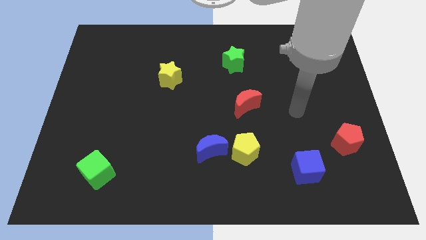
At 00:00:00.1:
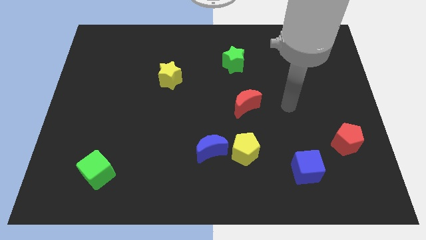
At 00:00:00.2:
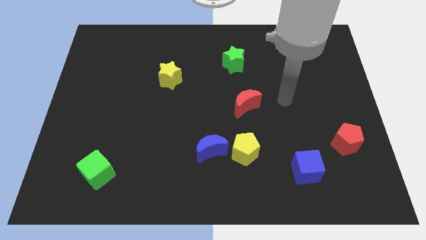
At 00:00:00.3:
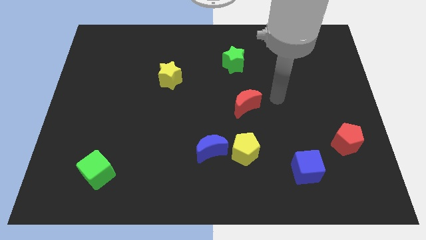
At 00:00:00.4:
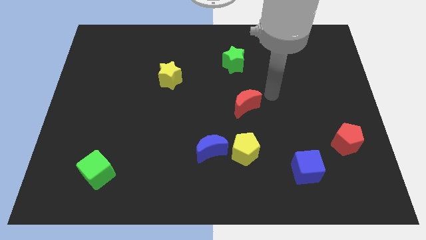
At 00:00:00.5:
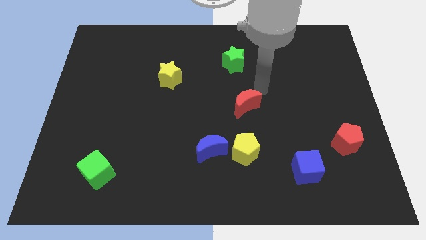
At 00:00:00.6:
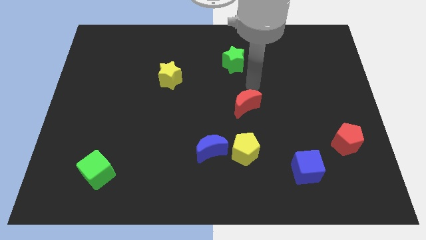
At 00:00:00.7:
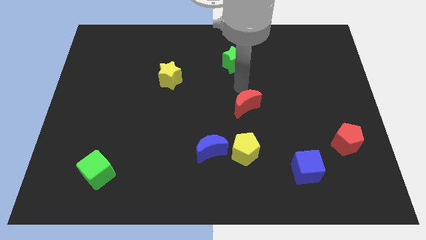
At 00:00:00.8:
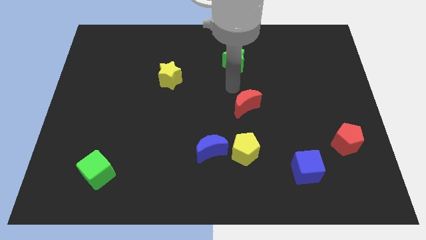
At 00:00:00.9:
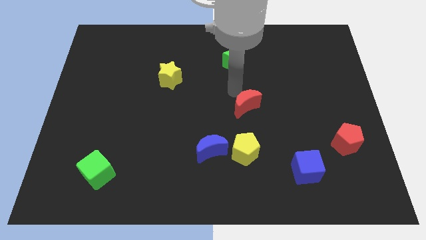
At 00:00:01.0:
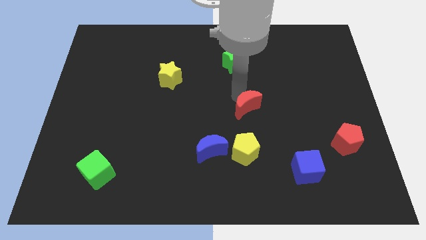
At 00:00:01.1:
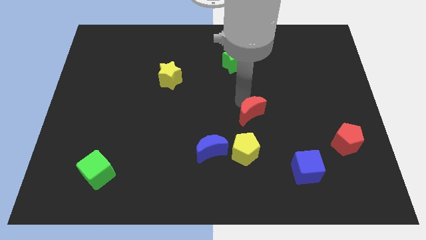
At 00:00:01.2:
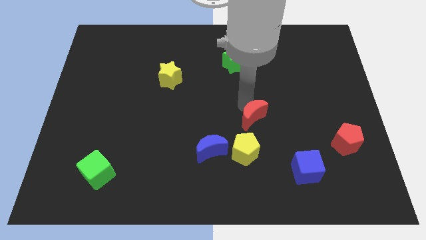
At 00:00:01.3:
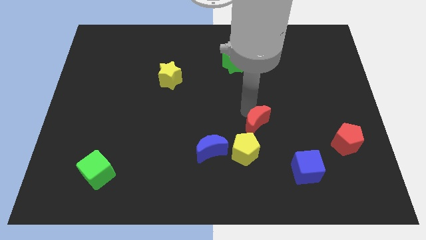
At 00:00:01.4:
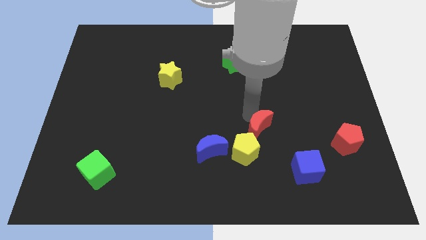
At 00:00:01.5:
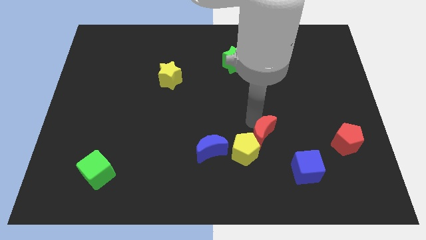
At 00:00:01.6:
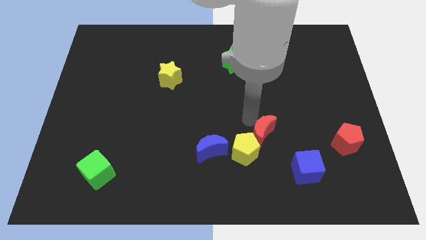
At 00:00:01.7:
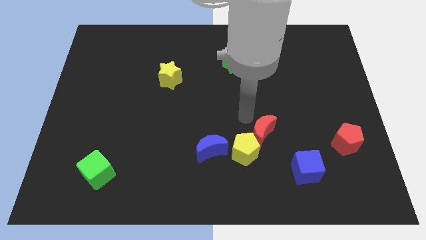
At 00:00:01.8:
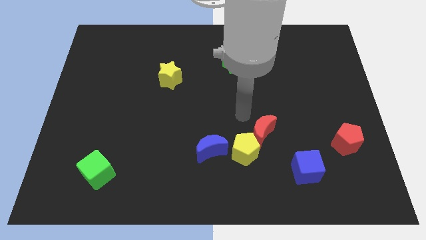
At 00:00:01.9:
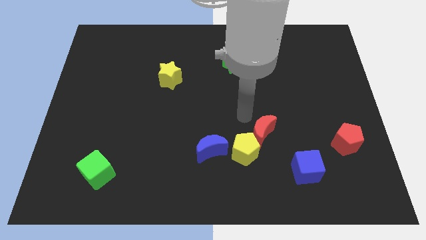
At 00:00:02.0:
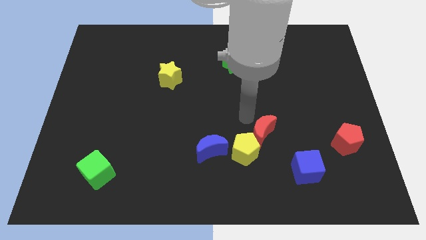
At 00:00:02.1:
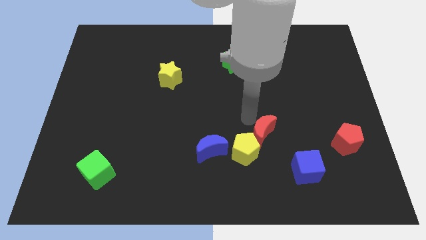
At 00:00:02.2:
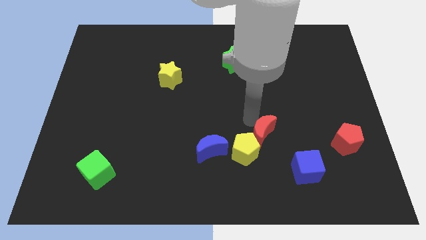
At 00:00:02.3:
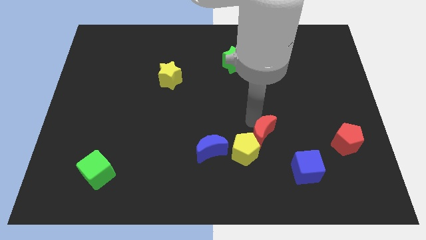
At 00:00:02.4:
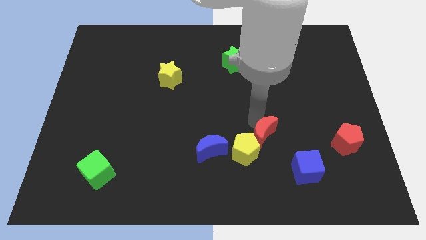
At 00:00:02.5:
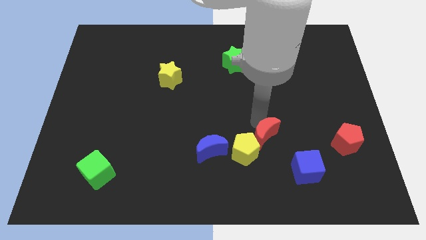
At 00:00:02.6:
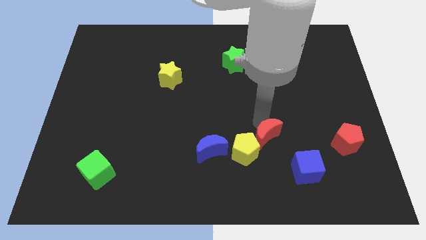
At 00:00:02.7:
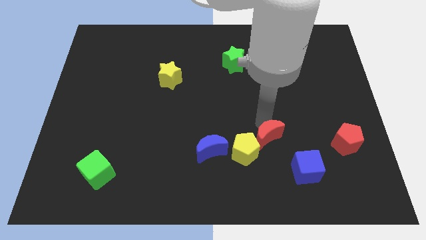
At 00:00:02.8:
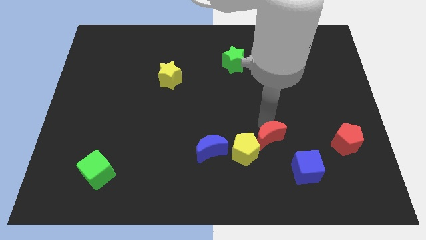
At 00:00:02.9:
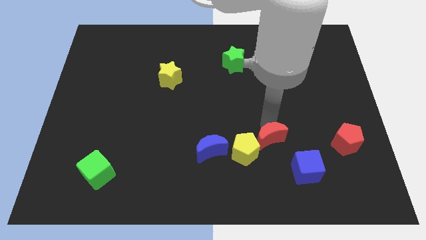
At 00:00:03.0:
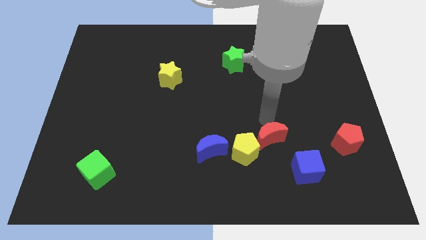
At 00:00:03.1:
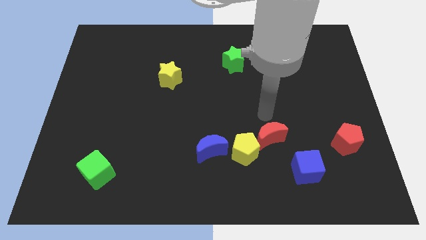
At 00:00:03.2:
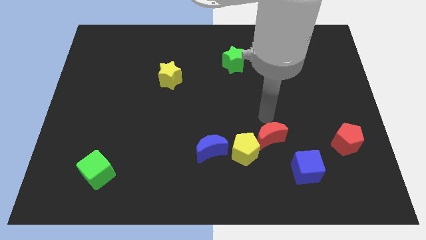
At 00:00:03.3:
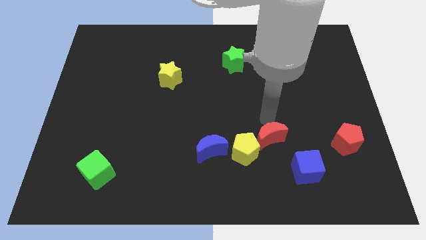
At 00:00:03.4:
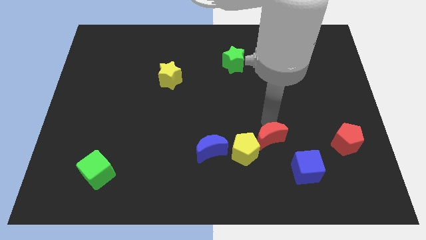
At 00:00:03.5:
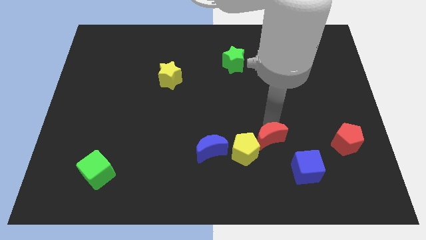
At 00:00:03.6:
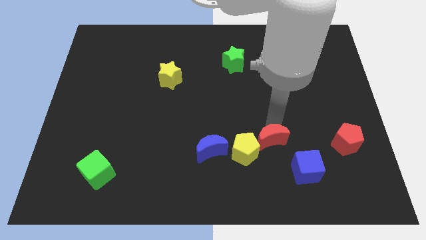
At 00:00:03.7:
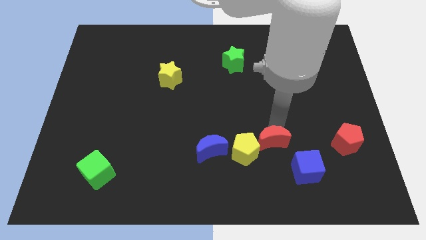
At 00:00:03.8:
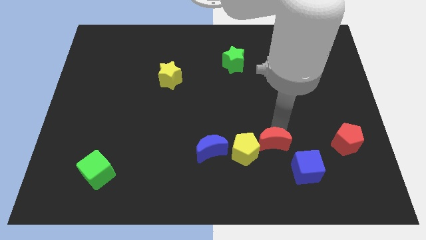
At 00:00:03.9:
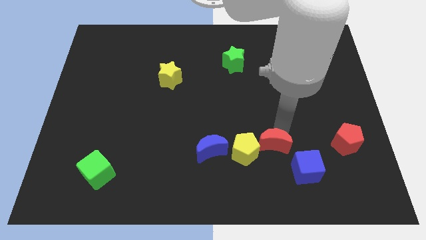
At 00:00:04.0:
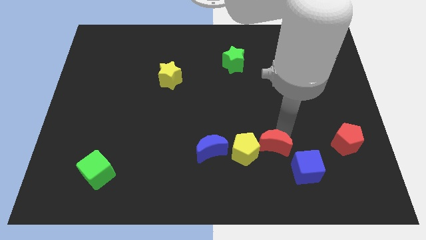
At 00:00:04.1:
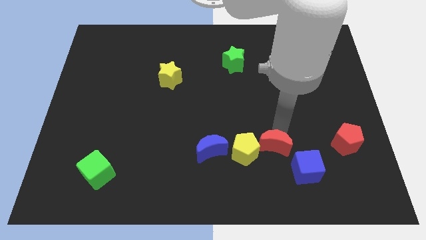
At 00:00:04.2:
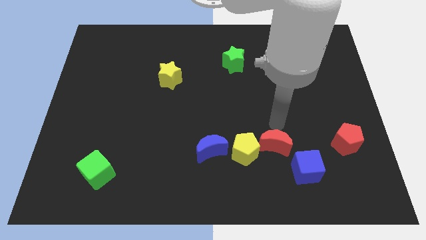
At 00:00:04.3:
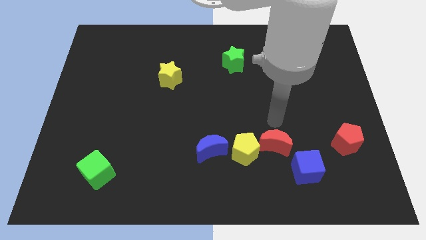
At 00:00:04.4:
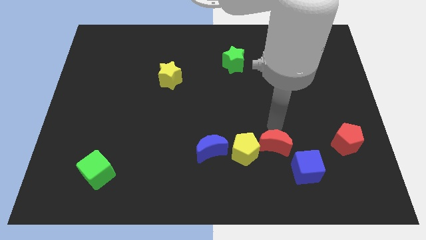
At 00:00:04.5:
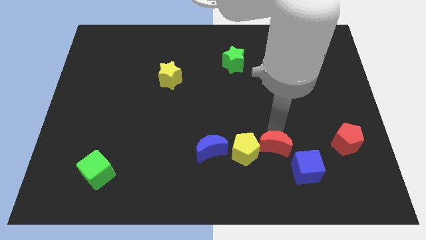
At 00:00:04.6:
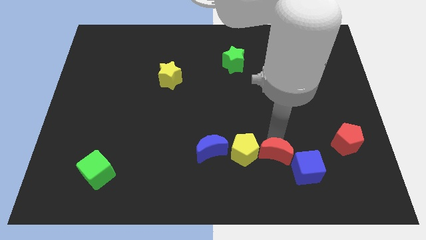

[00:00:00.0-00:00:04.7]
put the red moon to the left side of the blue cube

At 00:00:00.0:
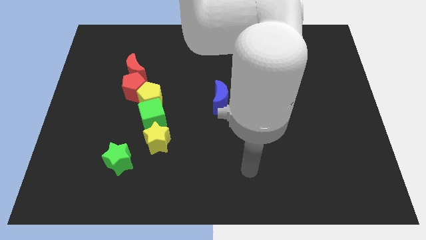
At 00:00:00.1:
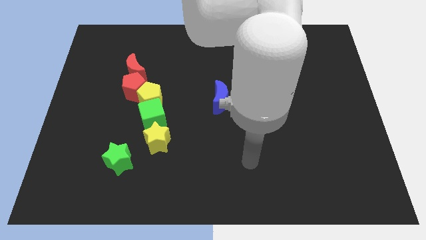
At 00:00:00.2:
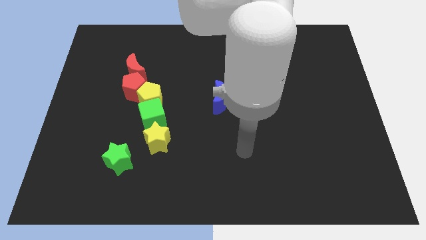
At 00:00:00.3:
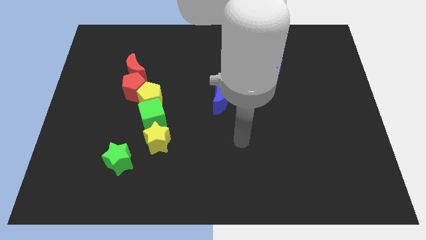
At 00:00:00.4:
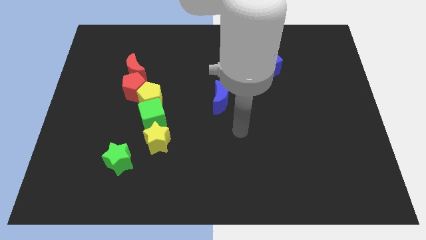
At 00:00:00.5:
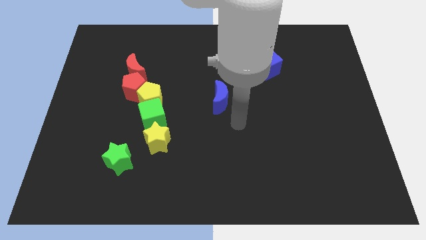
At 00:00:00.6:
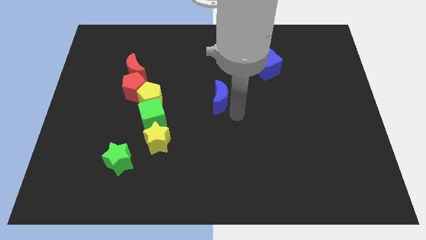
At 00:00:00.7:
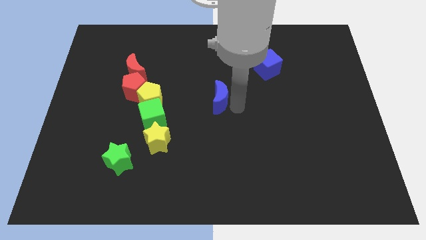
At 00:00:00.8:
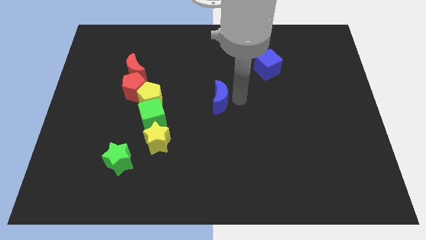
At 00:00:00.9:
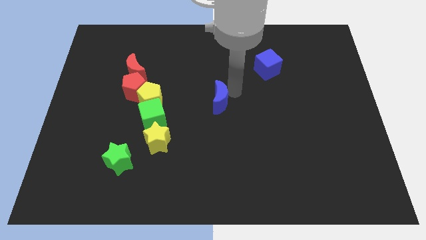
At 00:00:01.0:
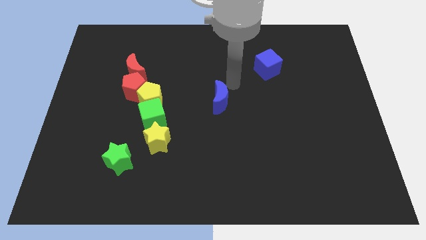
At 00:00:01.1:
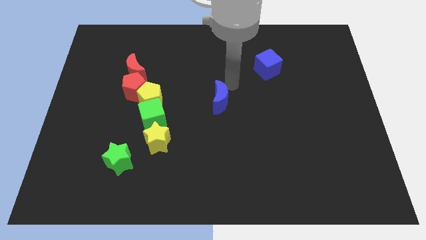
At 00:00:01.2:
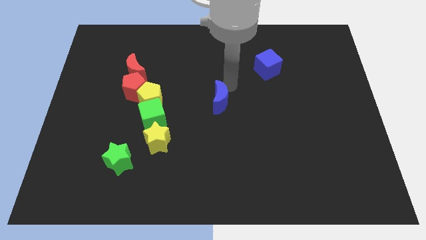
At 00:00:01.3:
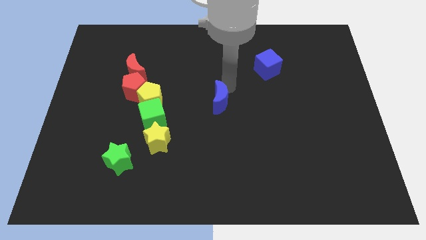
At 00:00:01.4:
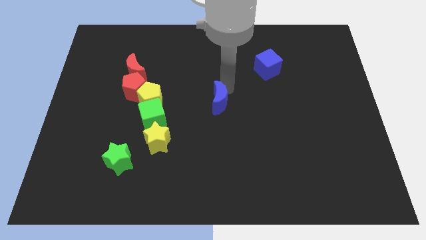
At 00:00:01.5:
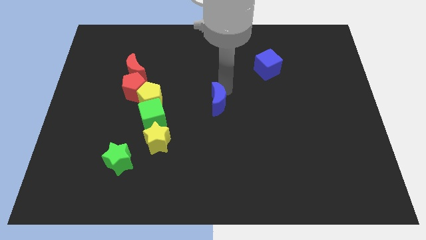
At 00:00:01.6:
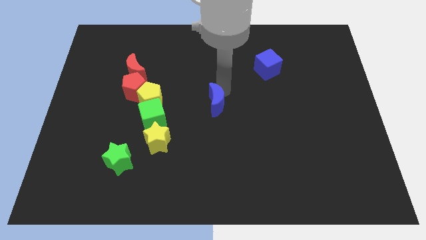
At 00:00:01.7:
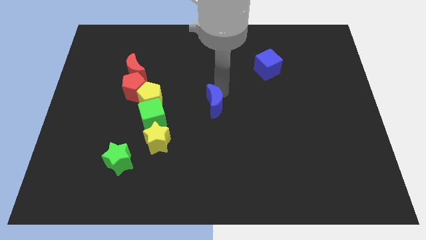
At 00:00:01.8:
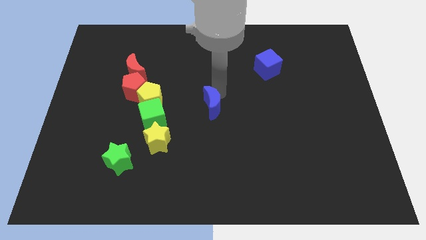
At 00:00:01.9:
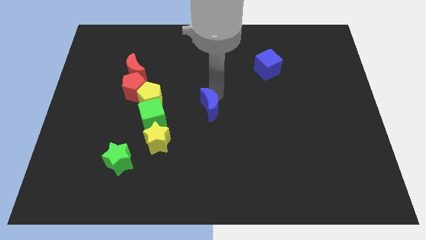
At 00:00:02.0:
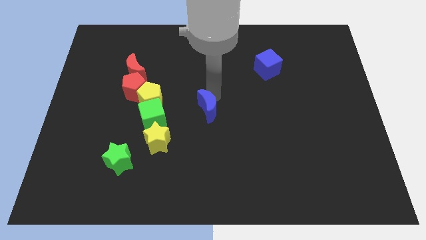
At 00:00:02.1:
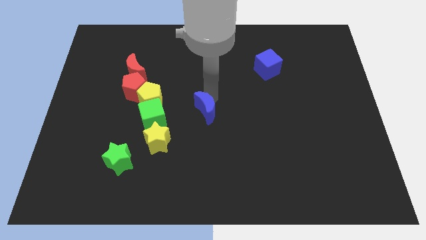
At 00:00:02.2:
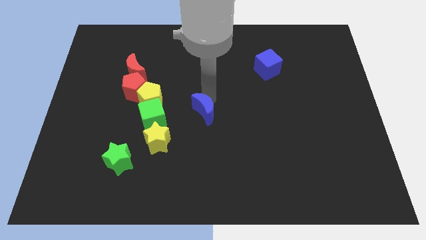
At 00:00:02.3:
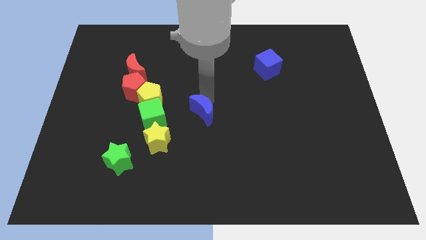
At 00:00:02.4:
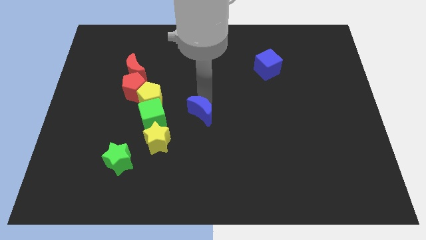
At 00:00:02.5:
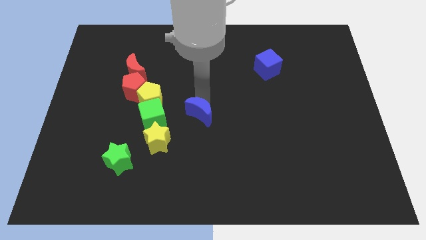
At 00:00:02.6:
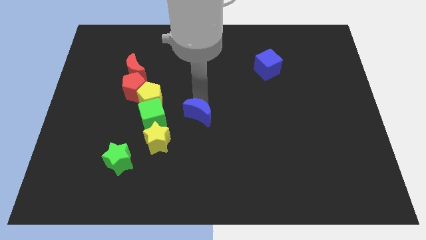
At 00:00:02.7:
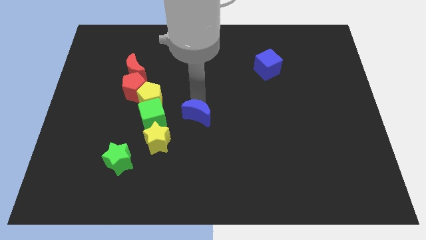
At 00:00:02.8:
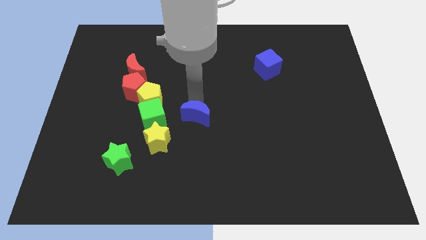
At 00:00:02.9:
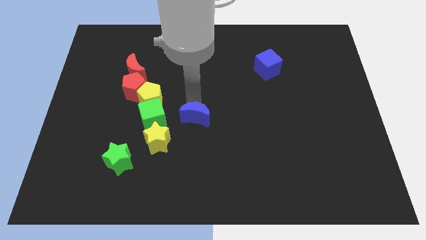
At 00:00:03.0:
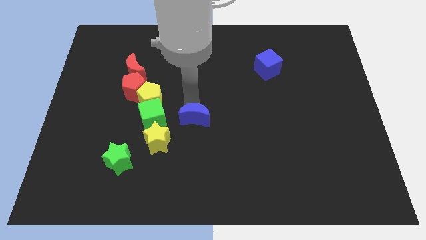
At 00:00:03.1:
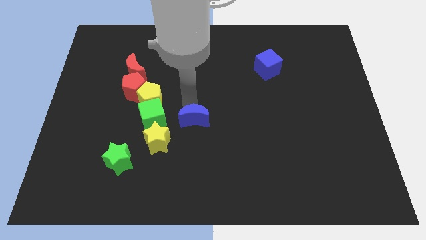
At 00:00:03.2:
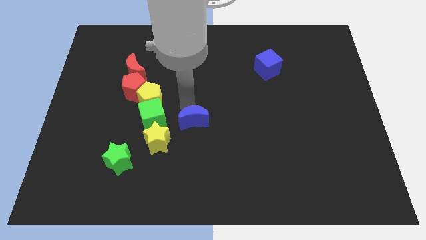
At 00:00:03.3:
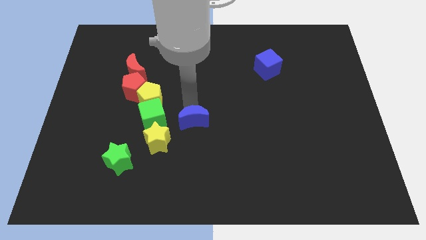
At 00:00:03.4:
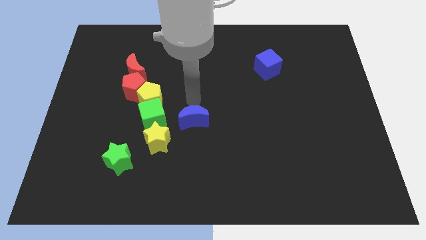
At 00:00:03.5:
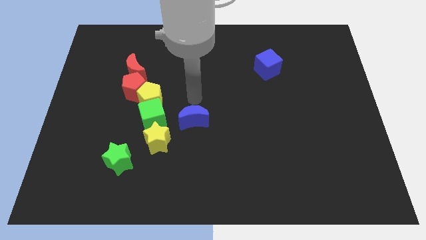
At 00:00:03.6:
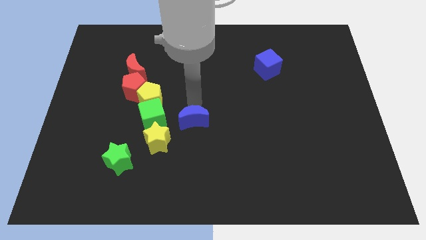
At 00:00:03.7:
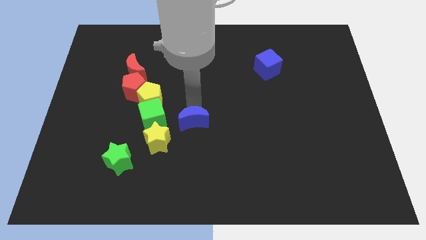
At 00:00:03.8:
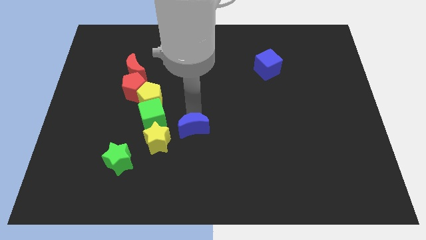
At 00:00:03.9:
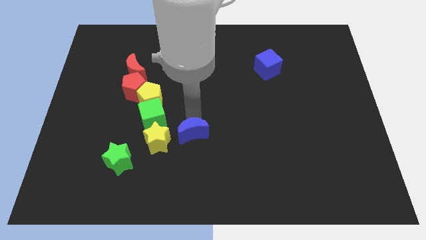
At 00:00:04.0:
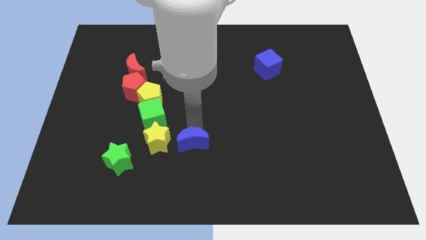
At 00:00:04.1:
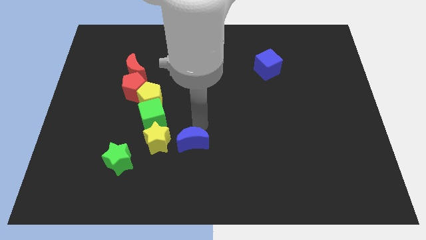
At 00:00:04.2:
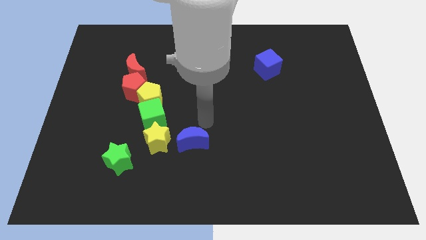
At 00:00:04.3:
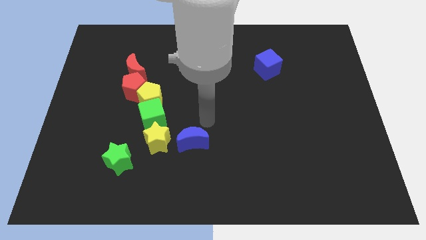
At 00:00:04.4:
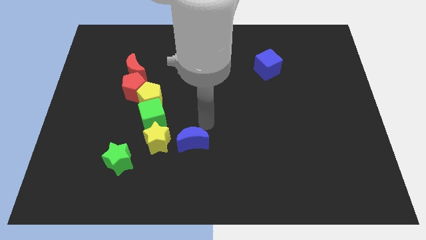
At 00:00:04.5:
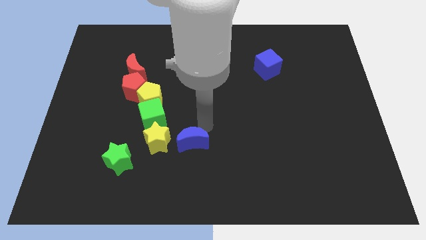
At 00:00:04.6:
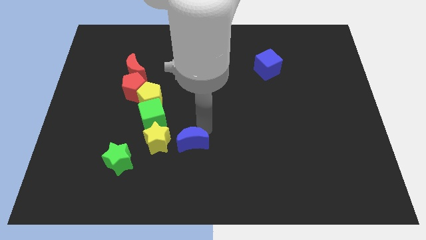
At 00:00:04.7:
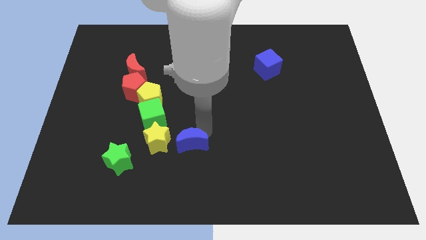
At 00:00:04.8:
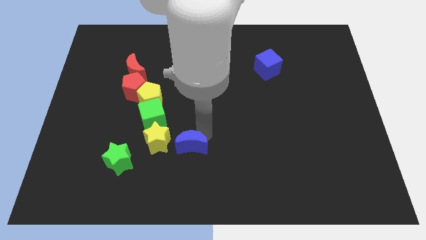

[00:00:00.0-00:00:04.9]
put the blue moon to the bottom right side of the yellow star
